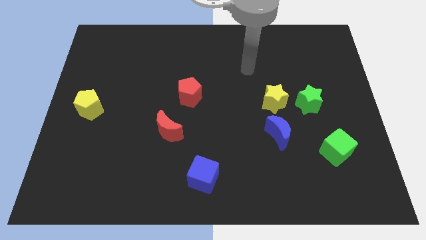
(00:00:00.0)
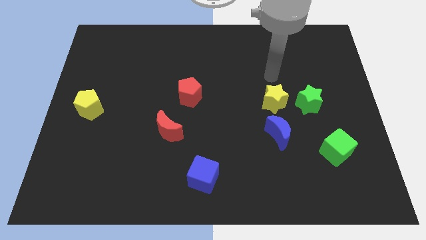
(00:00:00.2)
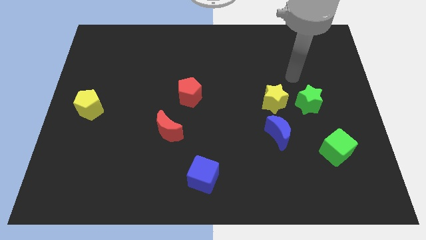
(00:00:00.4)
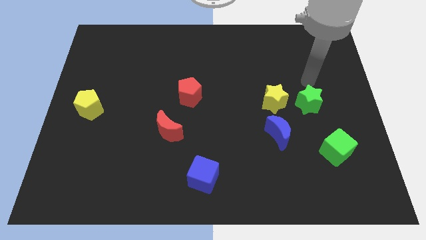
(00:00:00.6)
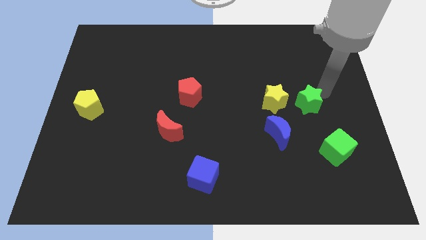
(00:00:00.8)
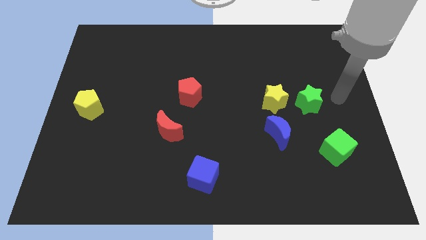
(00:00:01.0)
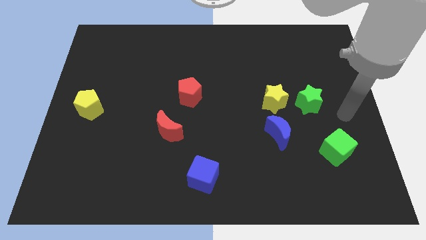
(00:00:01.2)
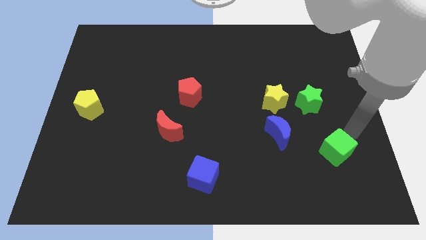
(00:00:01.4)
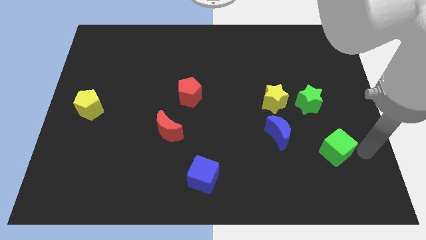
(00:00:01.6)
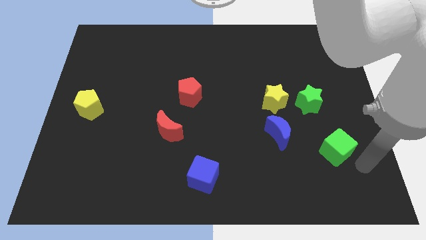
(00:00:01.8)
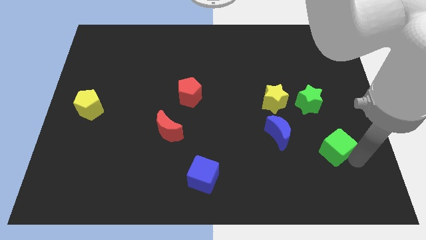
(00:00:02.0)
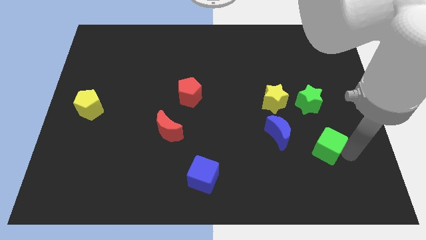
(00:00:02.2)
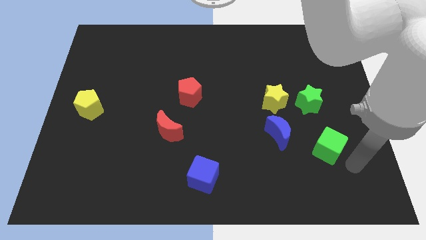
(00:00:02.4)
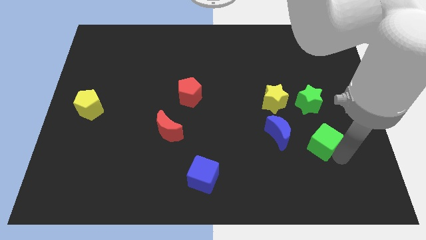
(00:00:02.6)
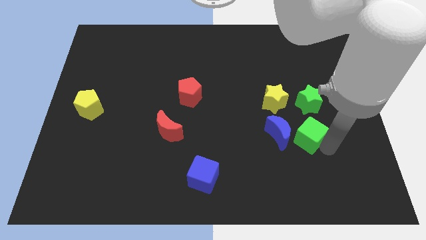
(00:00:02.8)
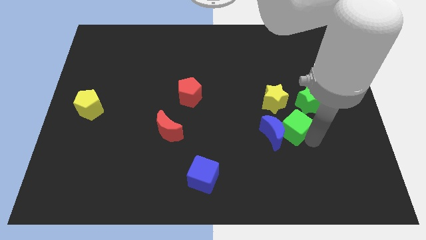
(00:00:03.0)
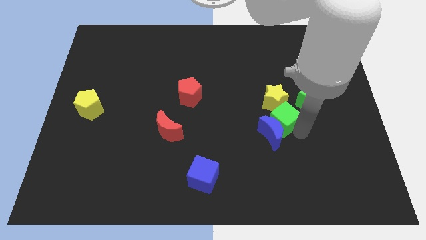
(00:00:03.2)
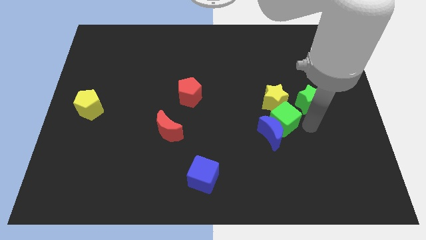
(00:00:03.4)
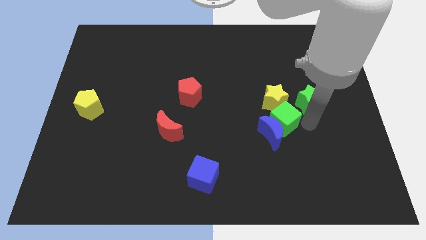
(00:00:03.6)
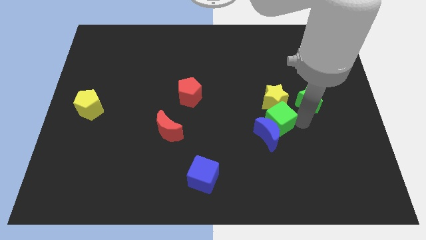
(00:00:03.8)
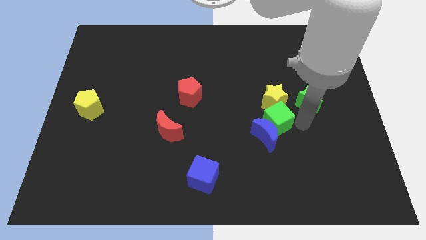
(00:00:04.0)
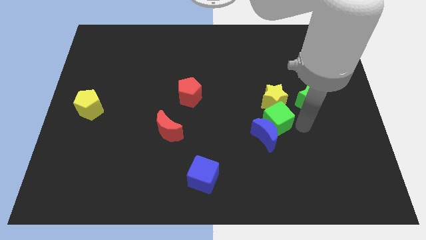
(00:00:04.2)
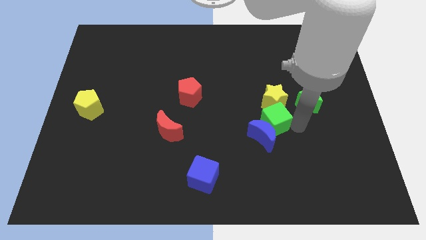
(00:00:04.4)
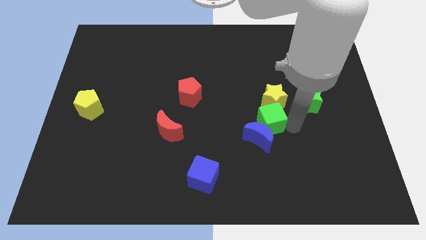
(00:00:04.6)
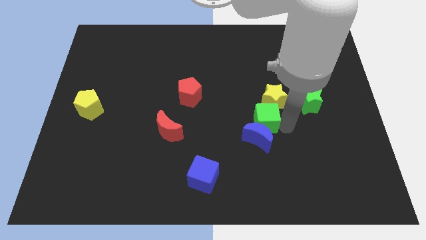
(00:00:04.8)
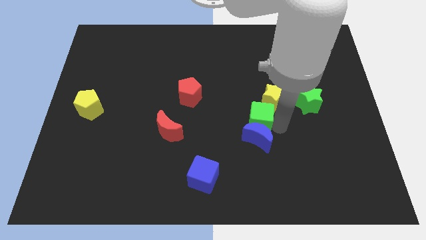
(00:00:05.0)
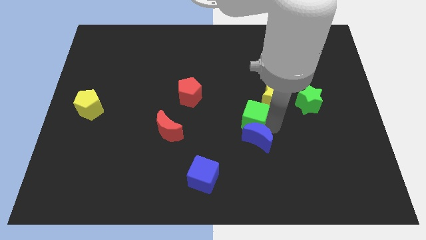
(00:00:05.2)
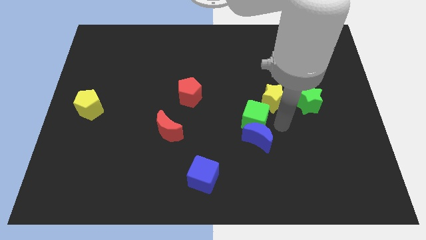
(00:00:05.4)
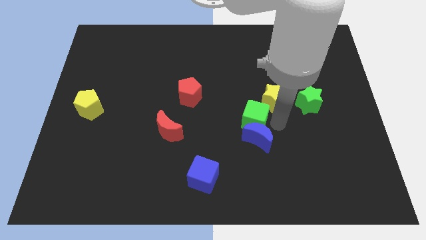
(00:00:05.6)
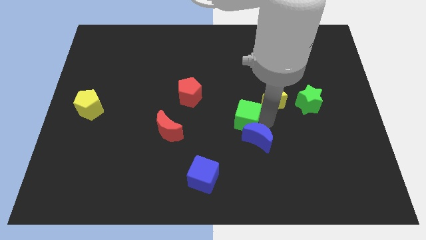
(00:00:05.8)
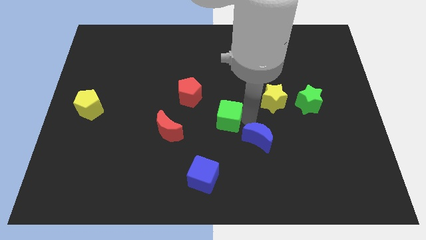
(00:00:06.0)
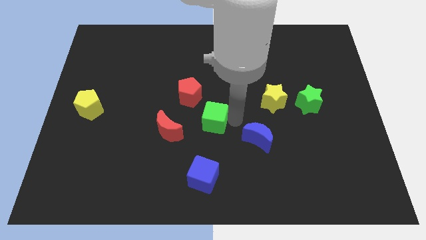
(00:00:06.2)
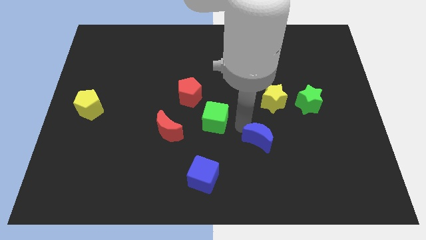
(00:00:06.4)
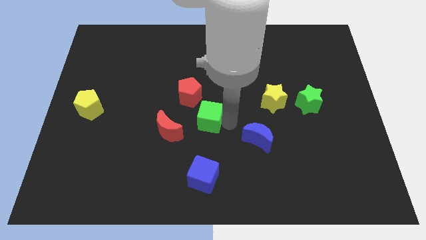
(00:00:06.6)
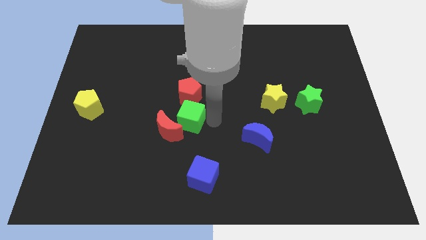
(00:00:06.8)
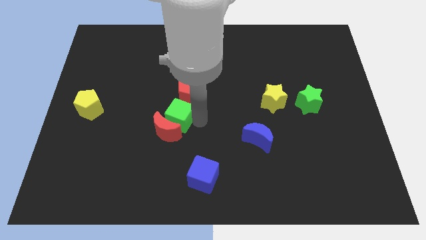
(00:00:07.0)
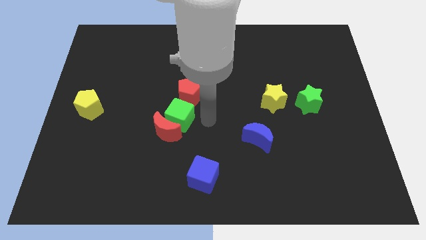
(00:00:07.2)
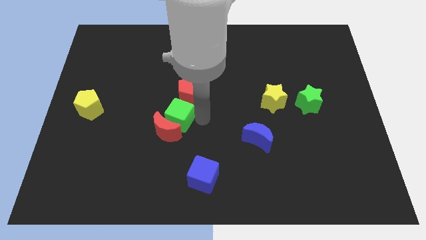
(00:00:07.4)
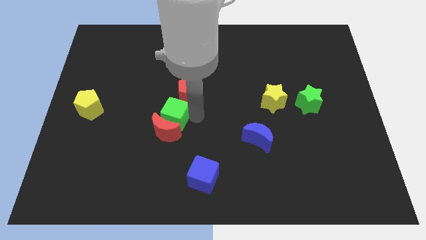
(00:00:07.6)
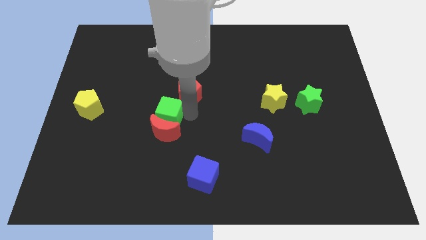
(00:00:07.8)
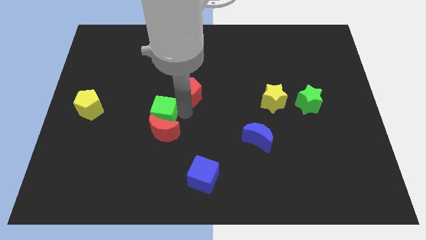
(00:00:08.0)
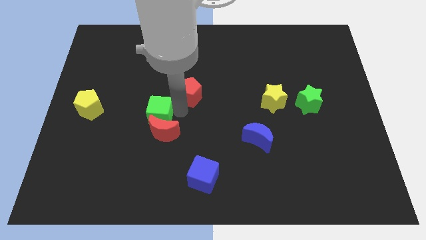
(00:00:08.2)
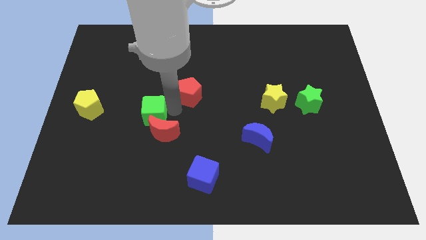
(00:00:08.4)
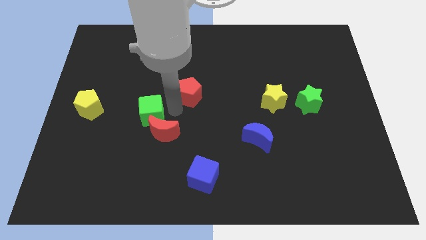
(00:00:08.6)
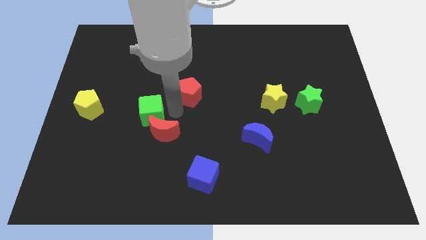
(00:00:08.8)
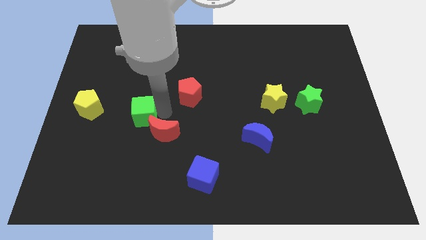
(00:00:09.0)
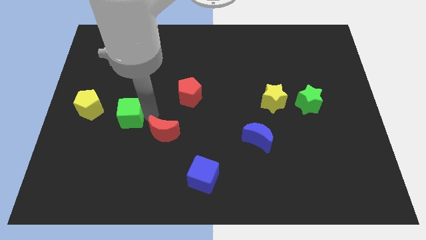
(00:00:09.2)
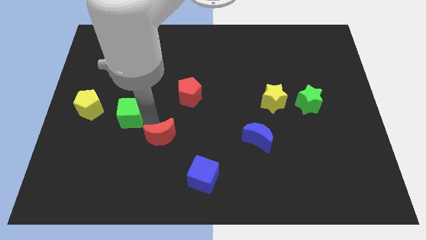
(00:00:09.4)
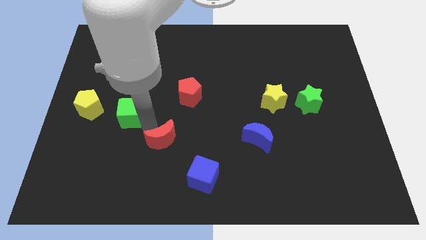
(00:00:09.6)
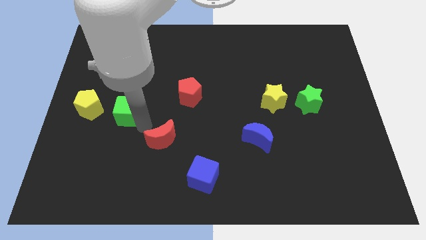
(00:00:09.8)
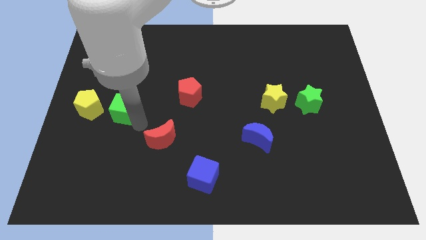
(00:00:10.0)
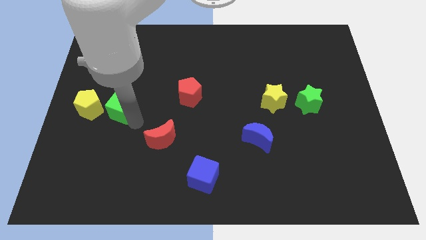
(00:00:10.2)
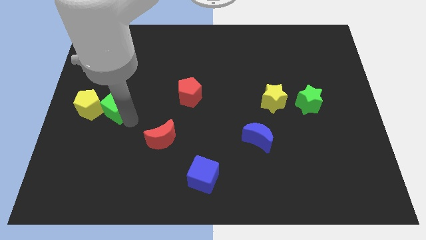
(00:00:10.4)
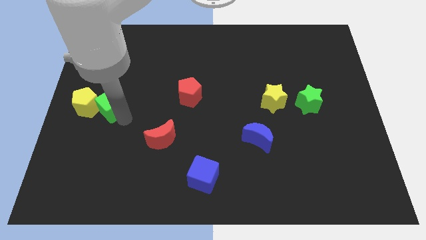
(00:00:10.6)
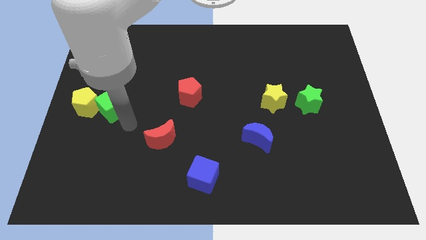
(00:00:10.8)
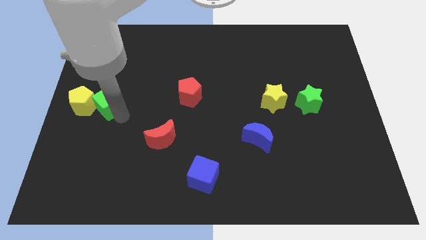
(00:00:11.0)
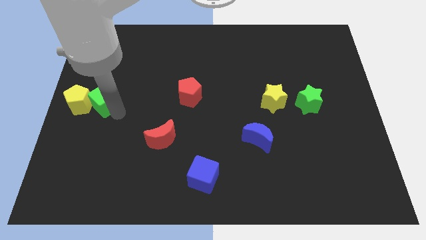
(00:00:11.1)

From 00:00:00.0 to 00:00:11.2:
move the green cube to the left side
